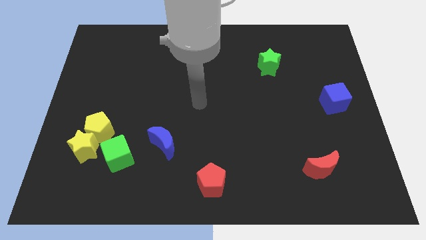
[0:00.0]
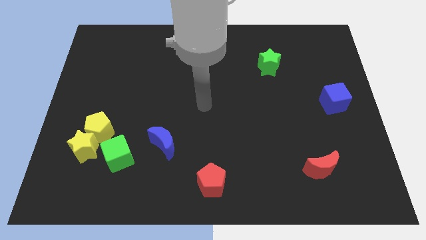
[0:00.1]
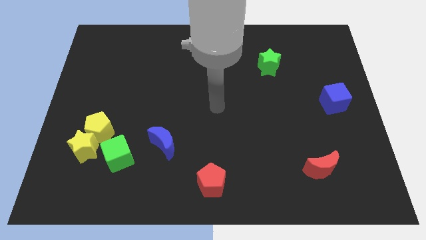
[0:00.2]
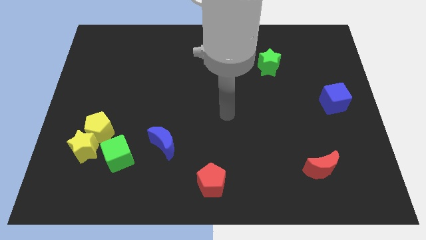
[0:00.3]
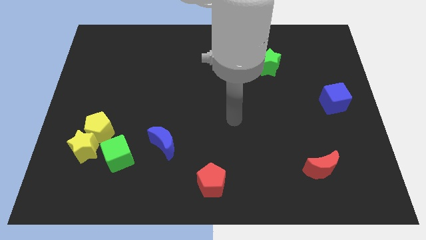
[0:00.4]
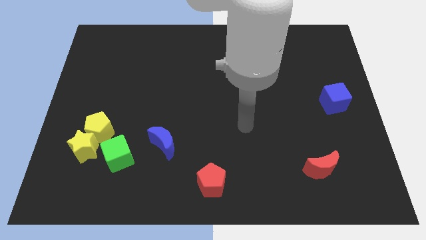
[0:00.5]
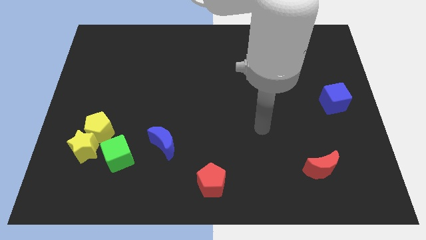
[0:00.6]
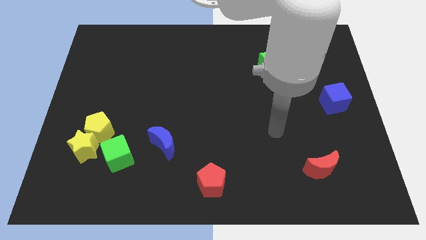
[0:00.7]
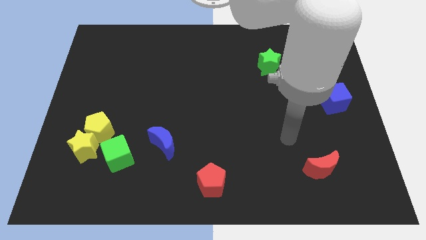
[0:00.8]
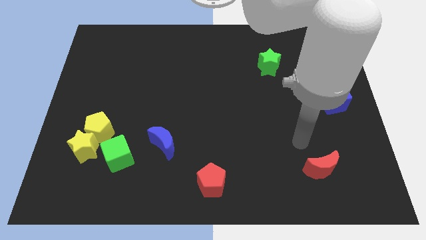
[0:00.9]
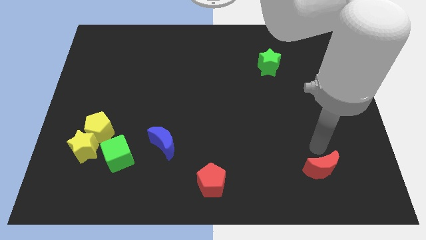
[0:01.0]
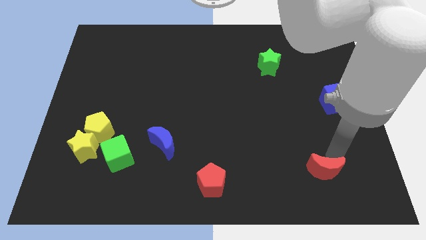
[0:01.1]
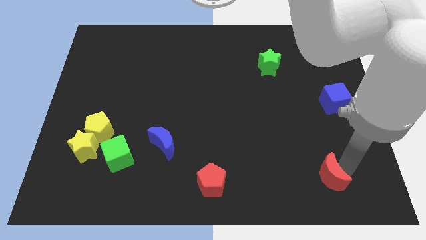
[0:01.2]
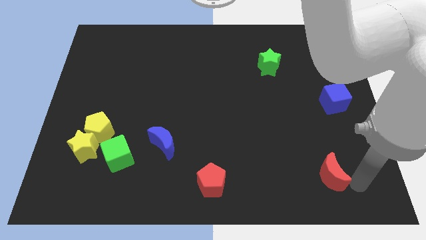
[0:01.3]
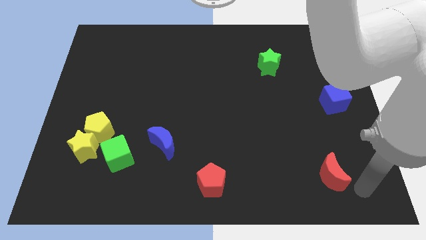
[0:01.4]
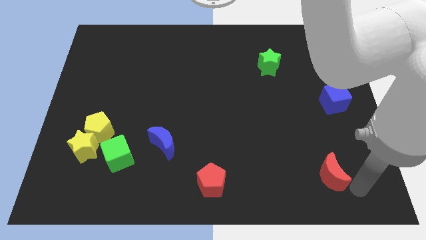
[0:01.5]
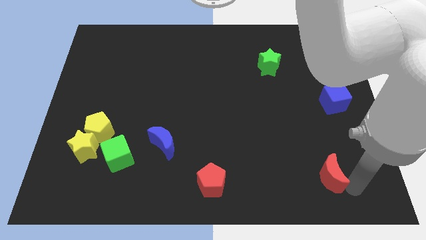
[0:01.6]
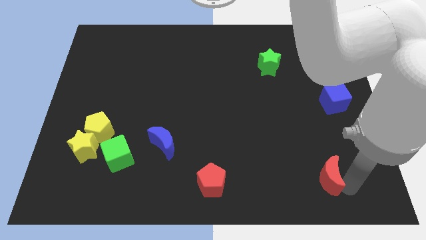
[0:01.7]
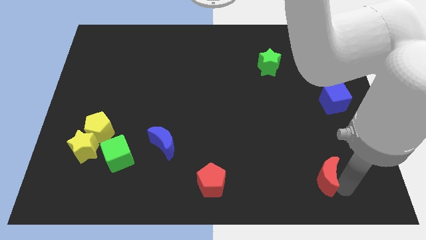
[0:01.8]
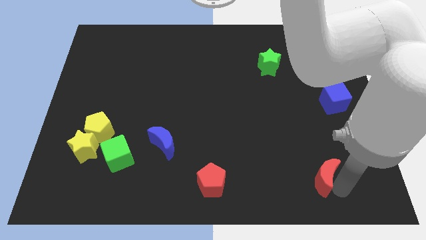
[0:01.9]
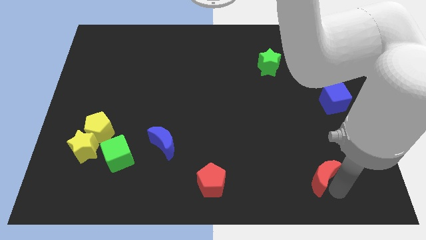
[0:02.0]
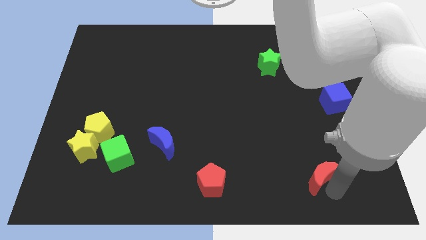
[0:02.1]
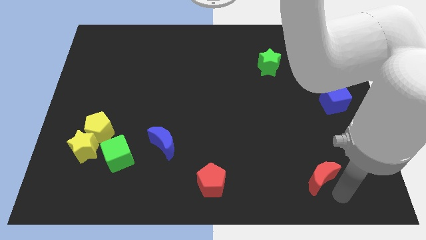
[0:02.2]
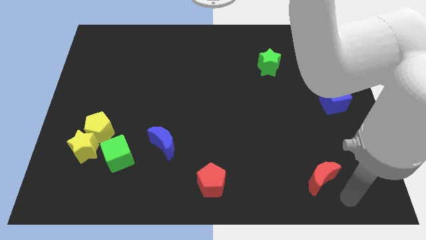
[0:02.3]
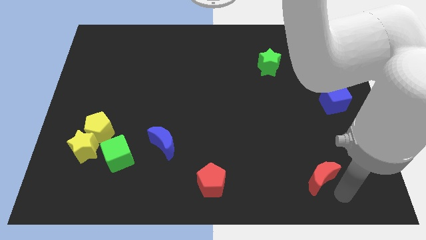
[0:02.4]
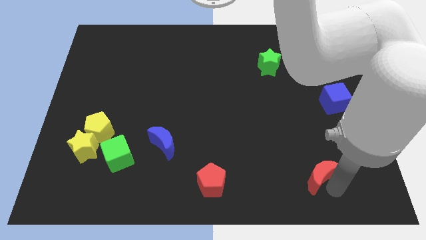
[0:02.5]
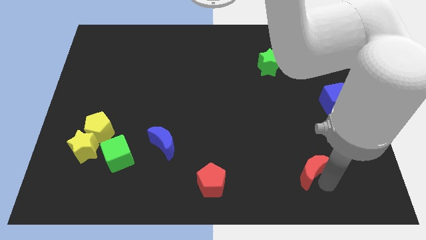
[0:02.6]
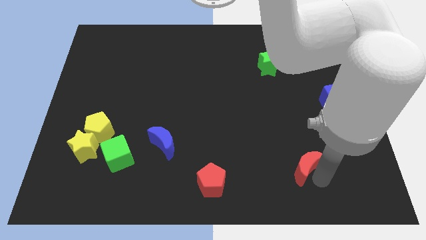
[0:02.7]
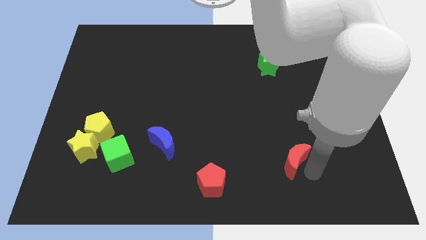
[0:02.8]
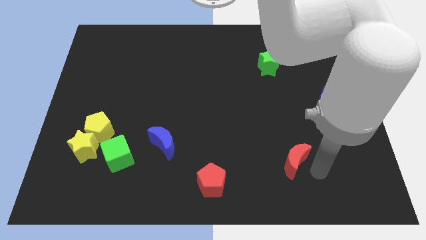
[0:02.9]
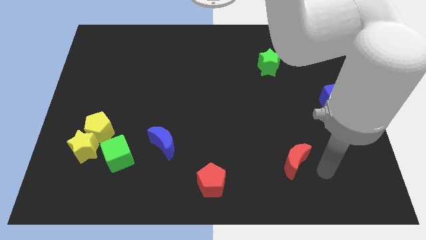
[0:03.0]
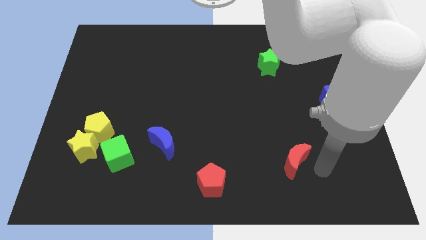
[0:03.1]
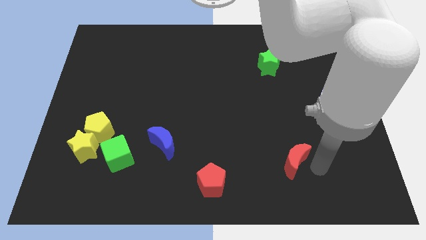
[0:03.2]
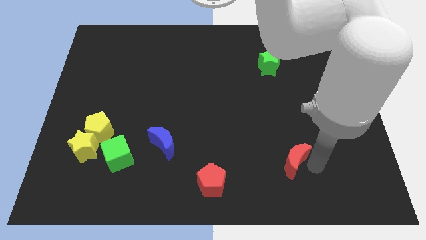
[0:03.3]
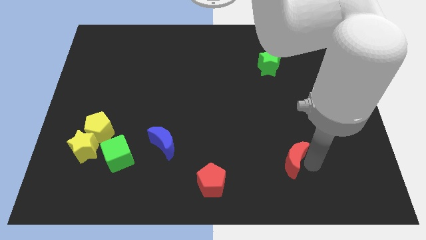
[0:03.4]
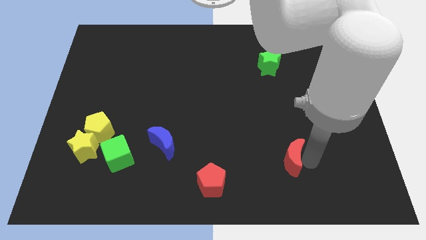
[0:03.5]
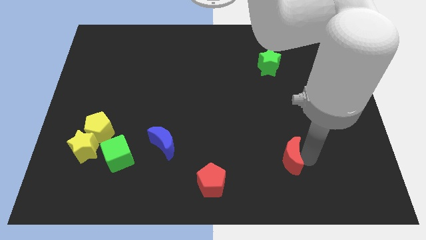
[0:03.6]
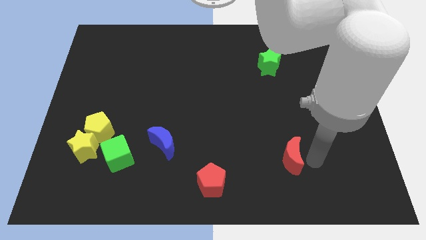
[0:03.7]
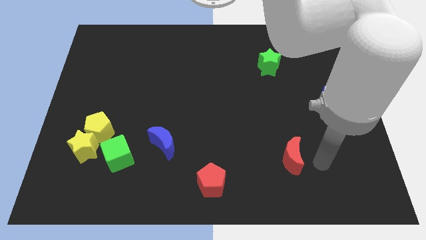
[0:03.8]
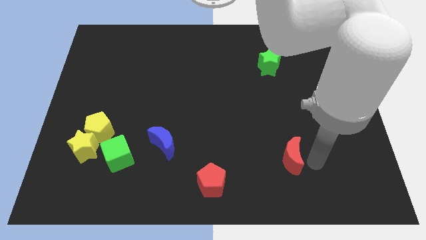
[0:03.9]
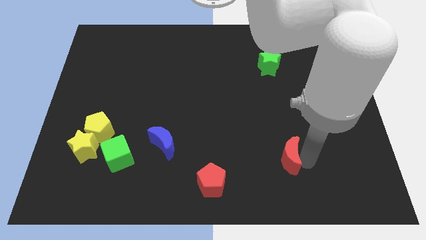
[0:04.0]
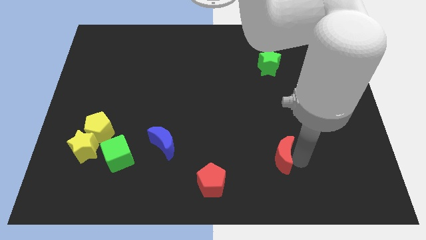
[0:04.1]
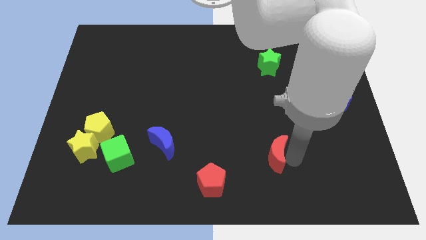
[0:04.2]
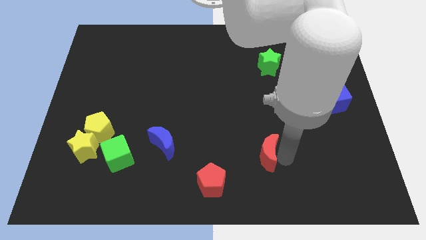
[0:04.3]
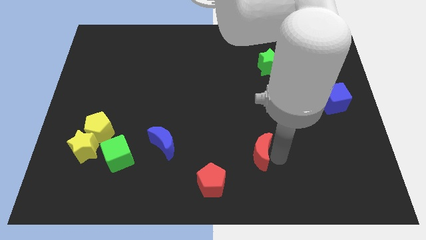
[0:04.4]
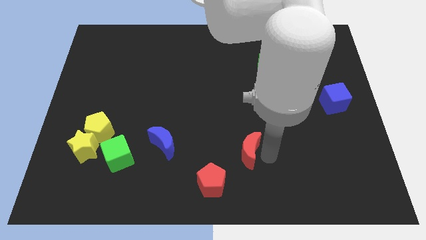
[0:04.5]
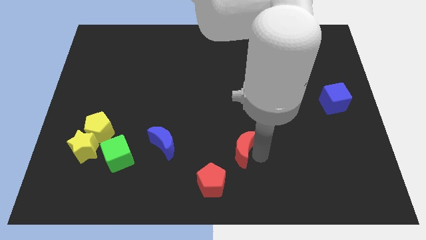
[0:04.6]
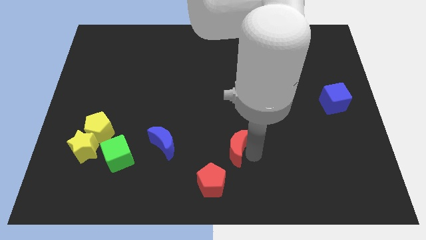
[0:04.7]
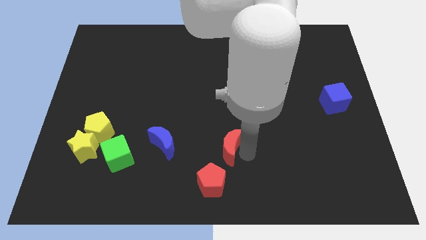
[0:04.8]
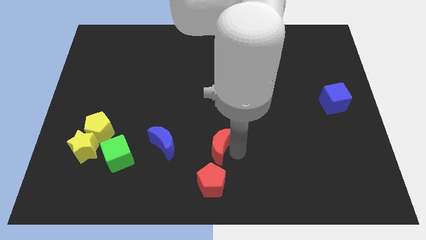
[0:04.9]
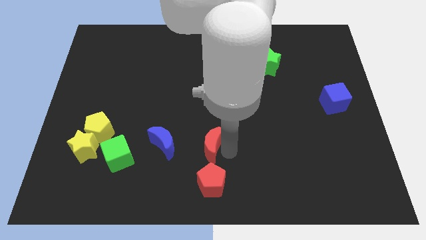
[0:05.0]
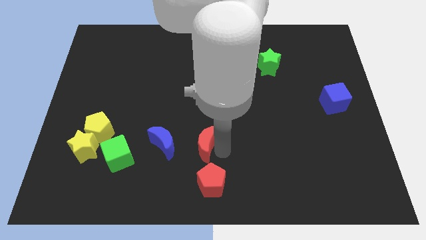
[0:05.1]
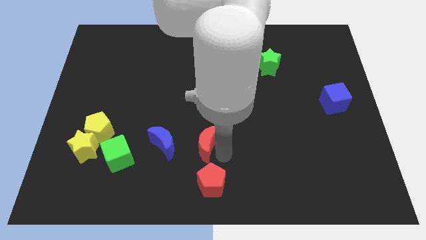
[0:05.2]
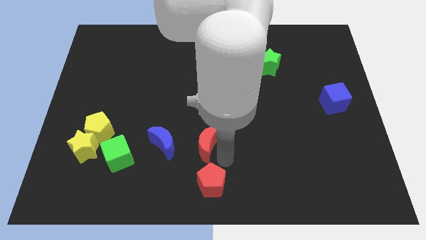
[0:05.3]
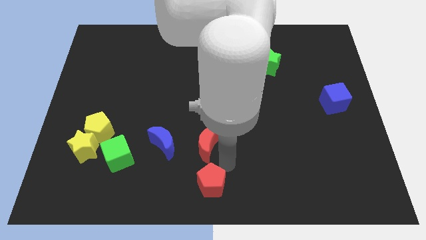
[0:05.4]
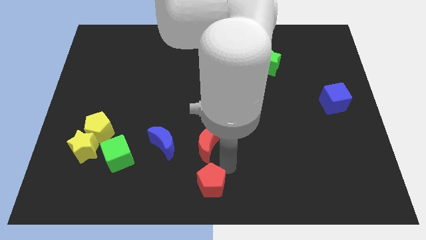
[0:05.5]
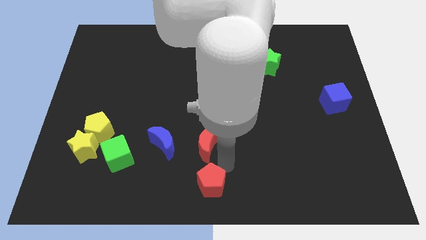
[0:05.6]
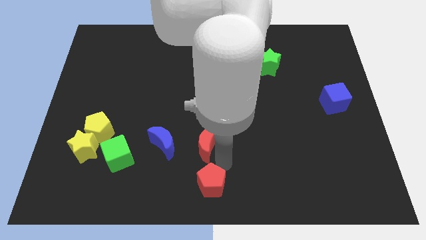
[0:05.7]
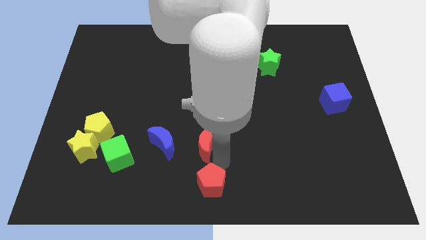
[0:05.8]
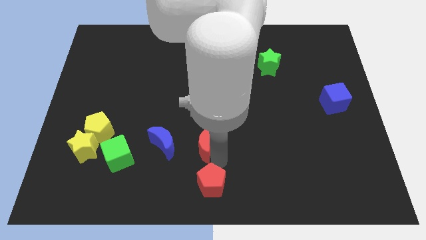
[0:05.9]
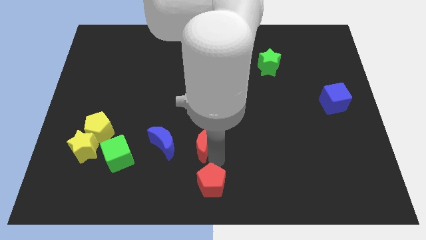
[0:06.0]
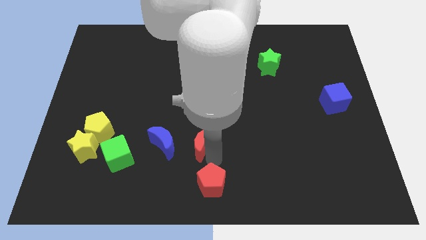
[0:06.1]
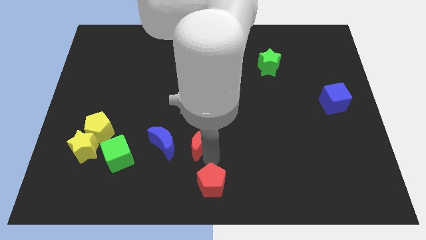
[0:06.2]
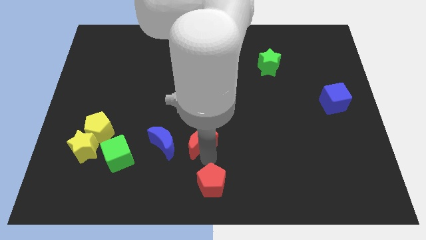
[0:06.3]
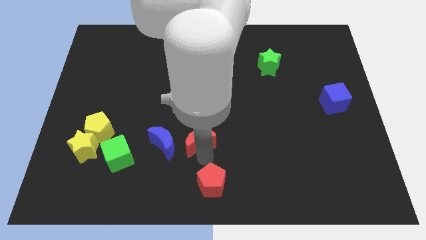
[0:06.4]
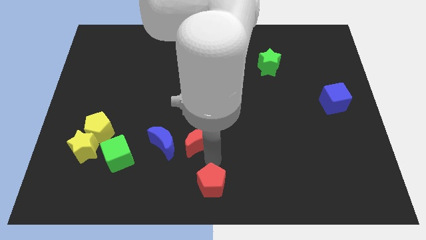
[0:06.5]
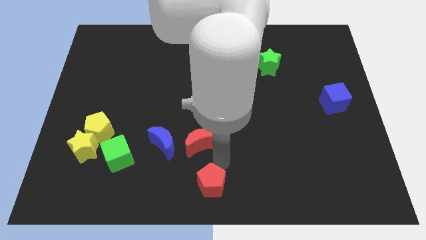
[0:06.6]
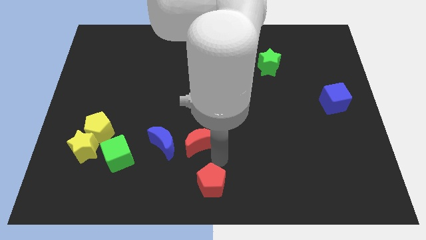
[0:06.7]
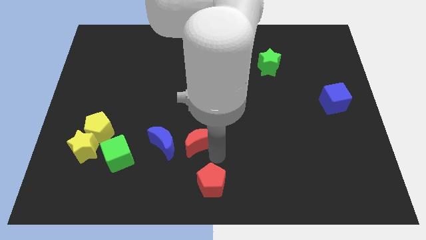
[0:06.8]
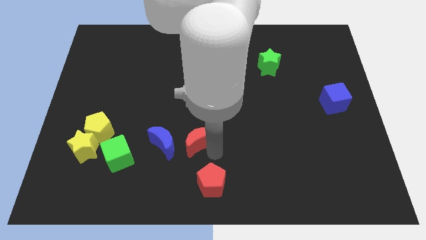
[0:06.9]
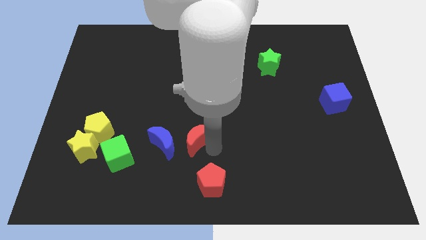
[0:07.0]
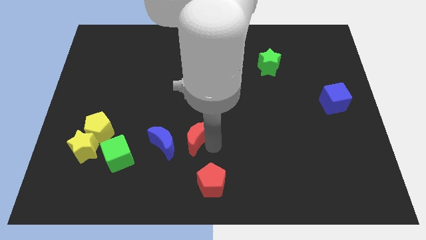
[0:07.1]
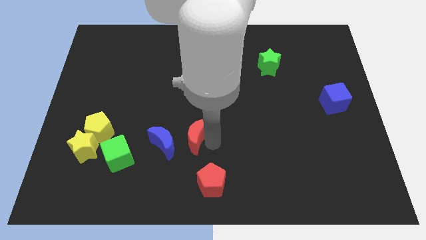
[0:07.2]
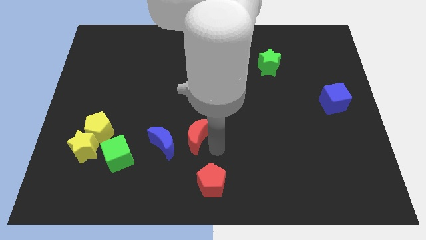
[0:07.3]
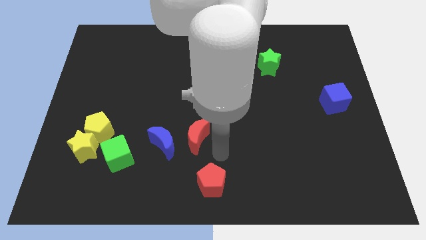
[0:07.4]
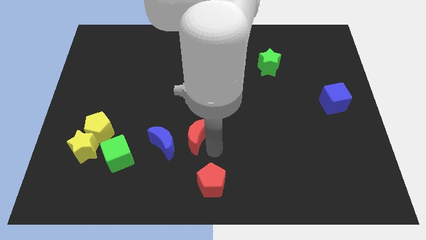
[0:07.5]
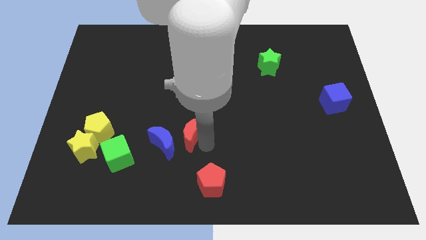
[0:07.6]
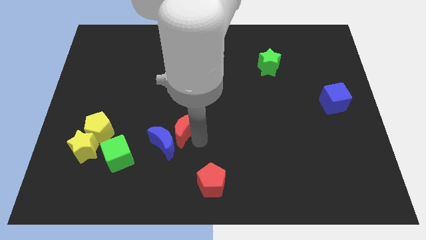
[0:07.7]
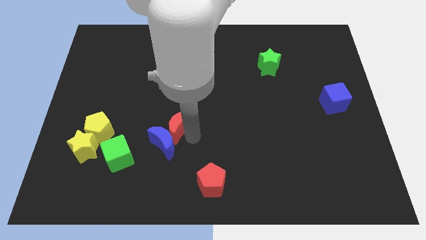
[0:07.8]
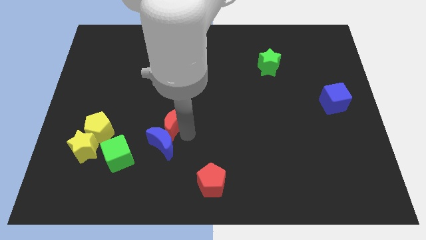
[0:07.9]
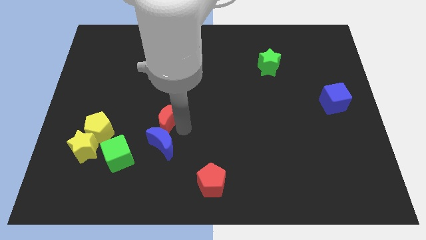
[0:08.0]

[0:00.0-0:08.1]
move the red moon to the right of the yellow pentagon
